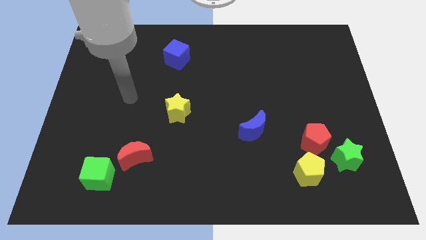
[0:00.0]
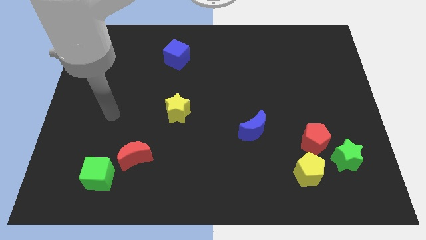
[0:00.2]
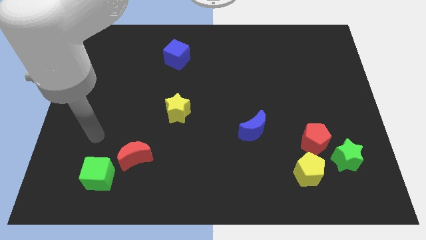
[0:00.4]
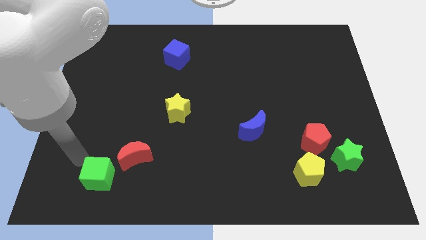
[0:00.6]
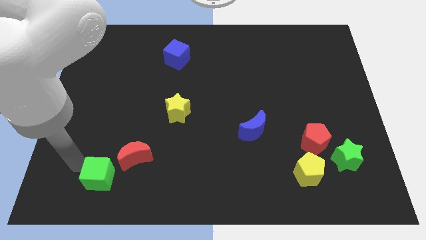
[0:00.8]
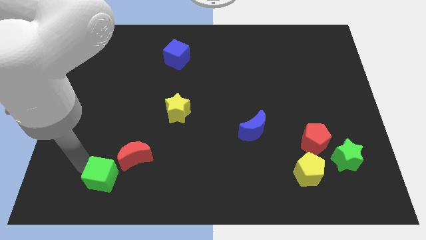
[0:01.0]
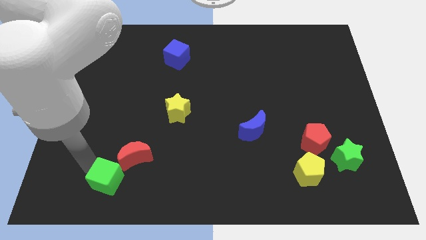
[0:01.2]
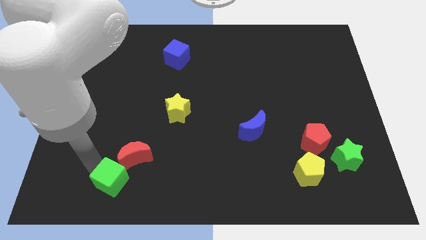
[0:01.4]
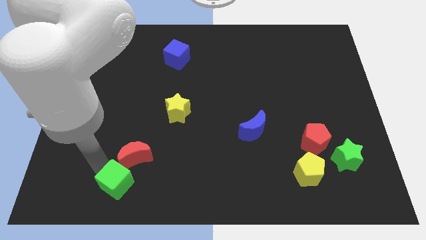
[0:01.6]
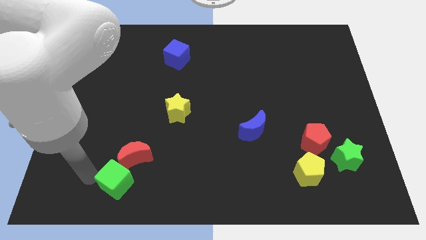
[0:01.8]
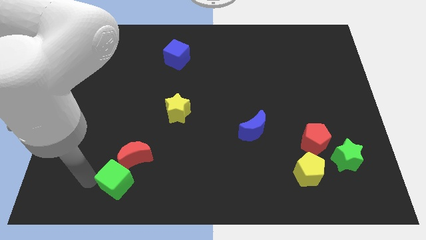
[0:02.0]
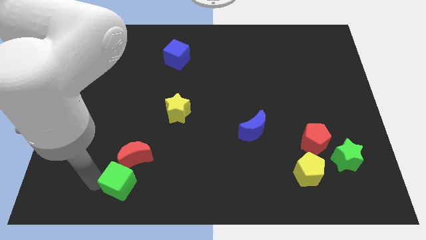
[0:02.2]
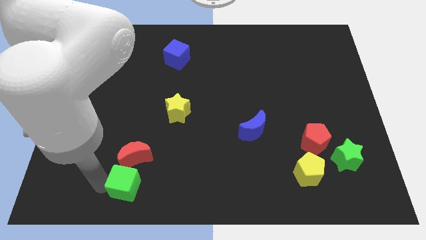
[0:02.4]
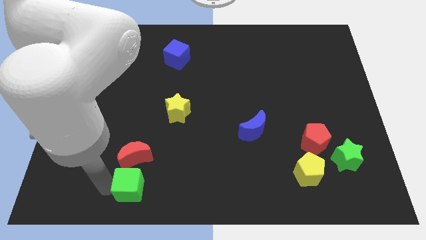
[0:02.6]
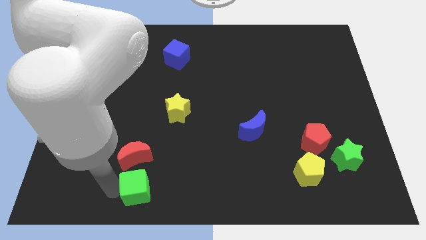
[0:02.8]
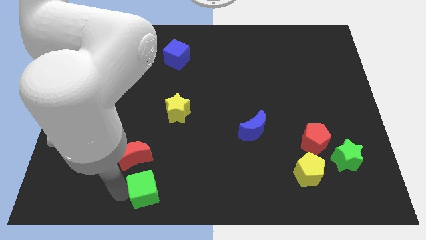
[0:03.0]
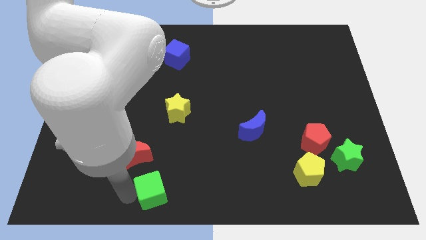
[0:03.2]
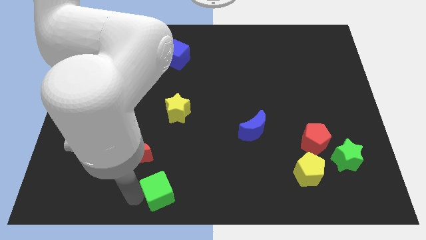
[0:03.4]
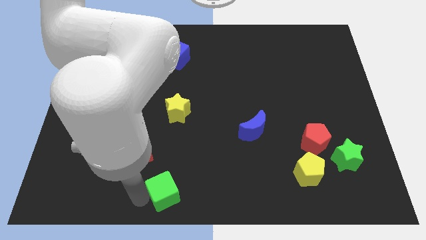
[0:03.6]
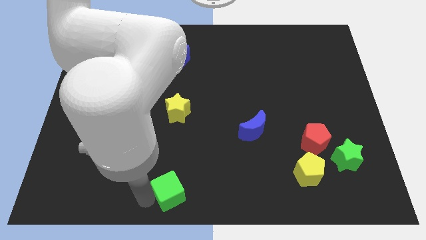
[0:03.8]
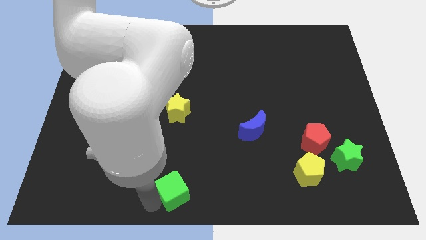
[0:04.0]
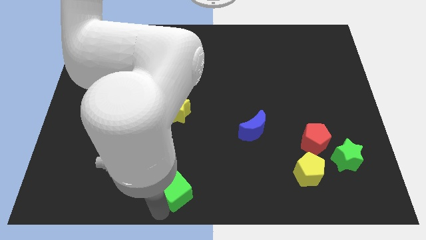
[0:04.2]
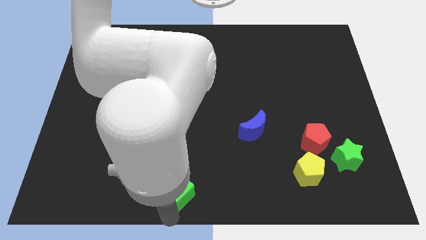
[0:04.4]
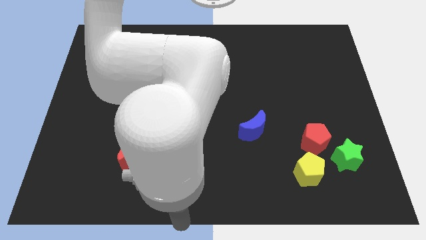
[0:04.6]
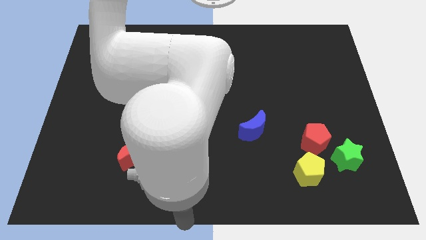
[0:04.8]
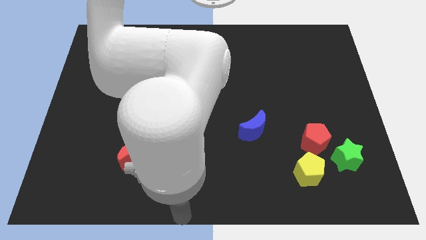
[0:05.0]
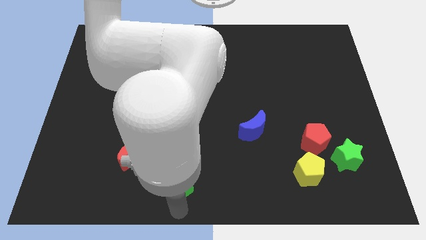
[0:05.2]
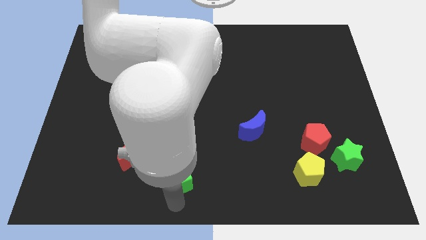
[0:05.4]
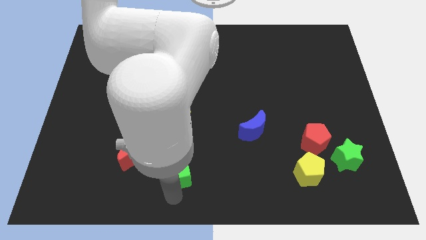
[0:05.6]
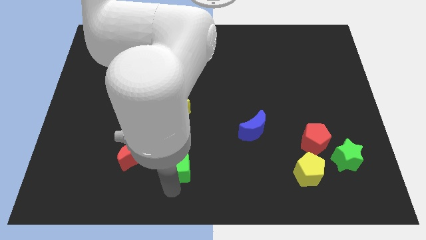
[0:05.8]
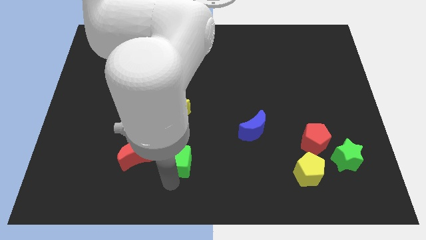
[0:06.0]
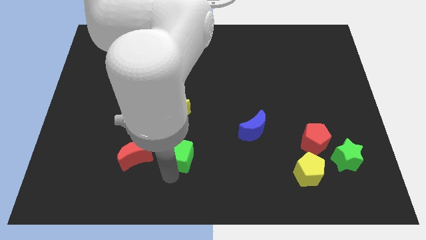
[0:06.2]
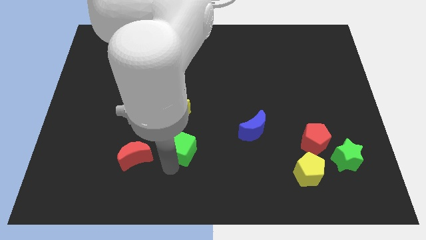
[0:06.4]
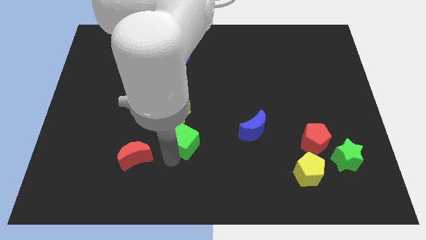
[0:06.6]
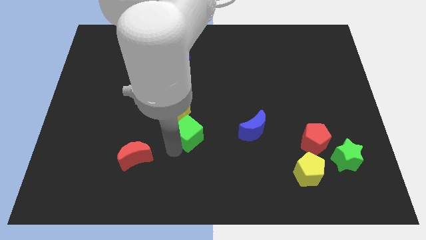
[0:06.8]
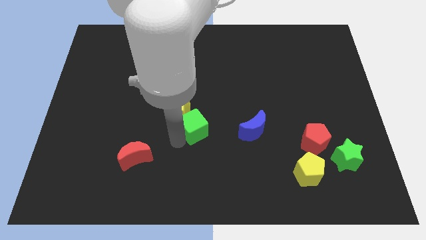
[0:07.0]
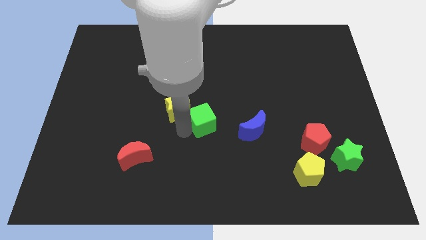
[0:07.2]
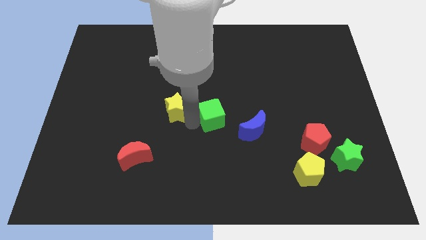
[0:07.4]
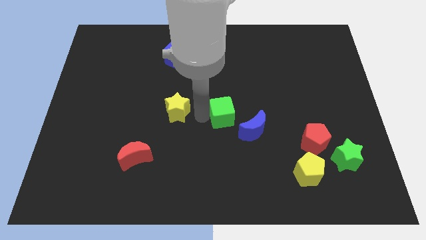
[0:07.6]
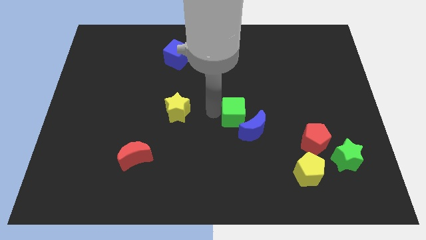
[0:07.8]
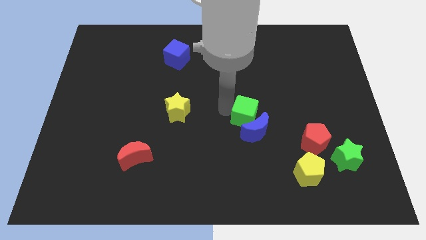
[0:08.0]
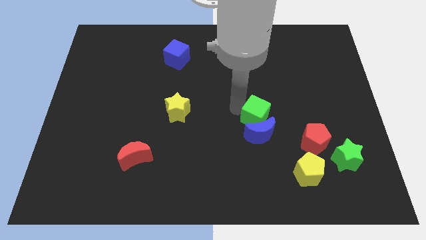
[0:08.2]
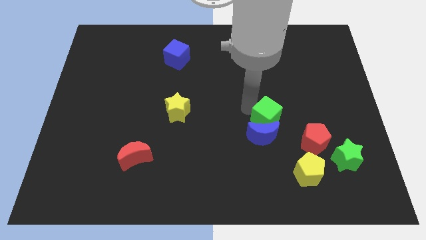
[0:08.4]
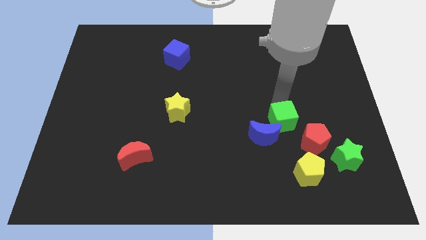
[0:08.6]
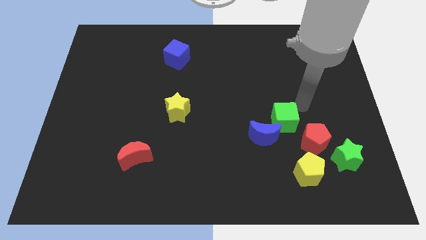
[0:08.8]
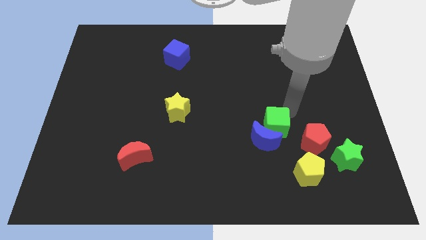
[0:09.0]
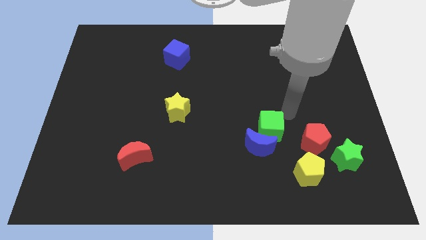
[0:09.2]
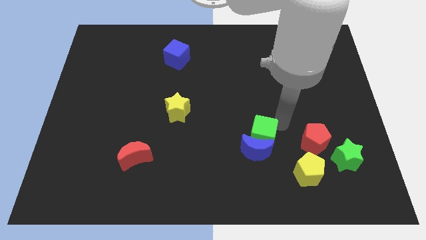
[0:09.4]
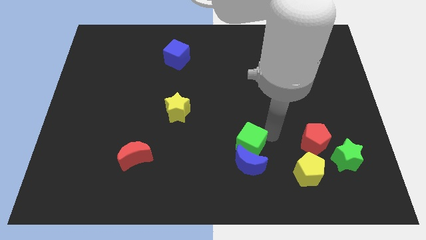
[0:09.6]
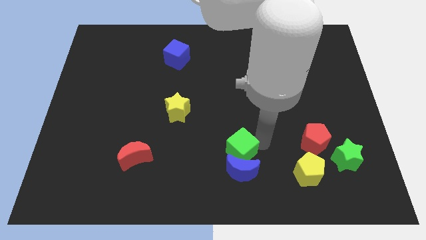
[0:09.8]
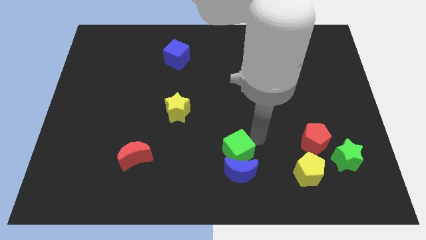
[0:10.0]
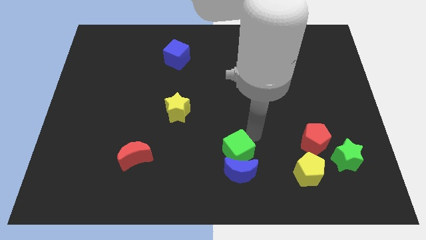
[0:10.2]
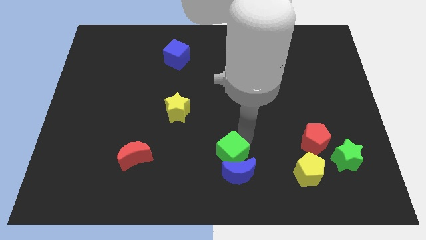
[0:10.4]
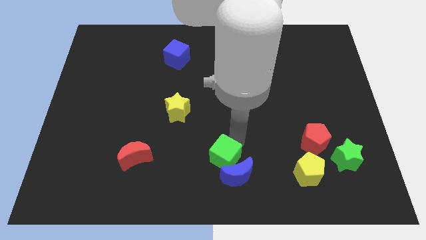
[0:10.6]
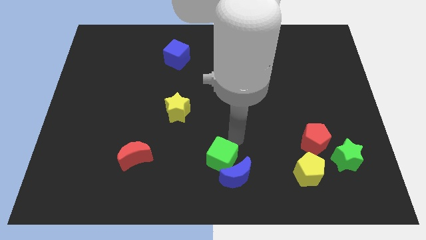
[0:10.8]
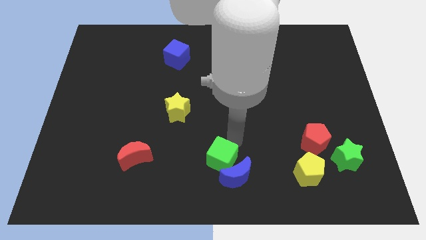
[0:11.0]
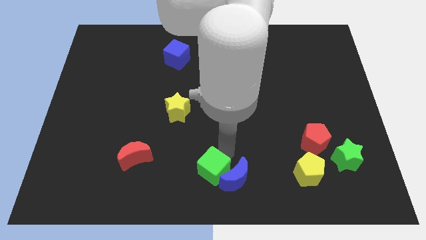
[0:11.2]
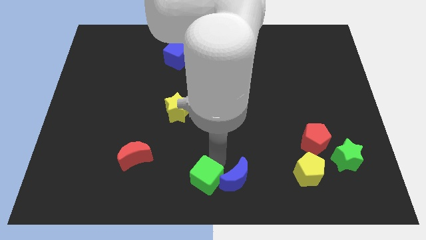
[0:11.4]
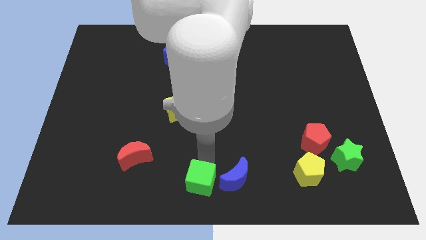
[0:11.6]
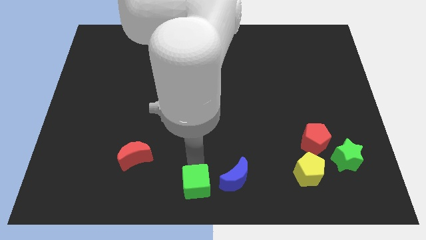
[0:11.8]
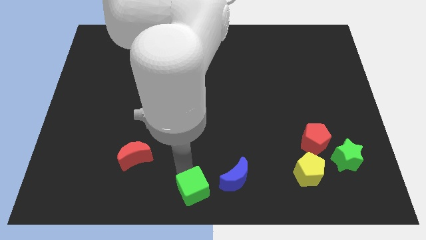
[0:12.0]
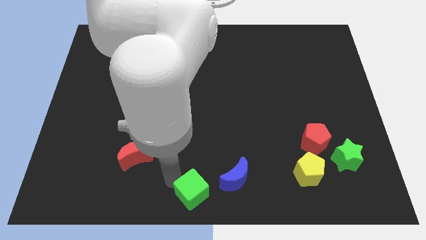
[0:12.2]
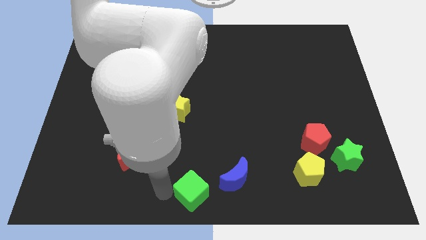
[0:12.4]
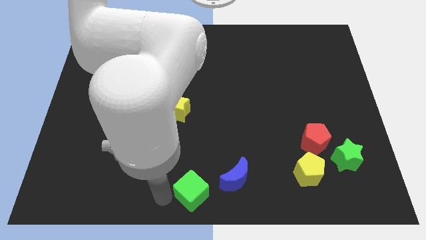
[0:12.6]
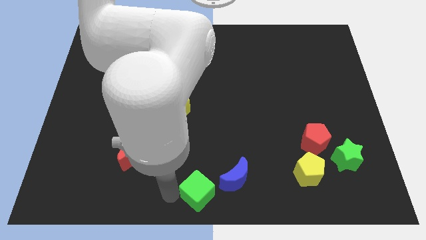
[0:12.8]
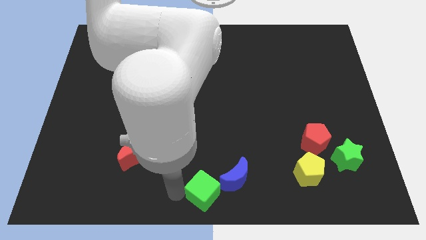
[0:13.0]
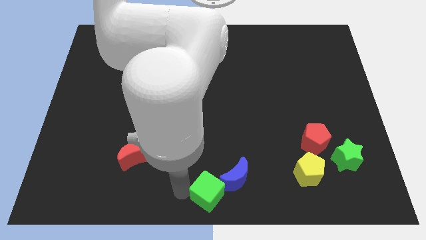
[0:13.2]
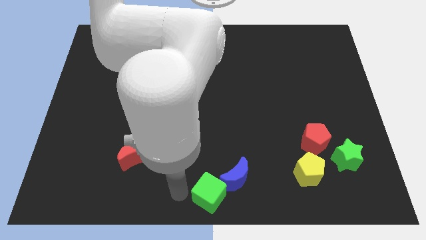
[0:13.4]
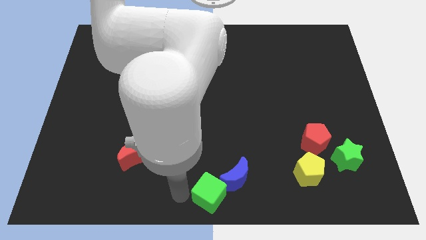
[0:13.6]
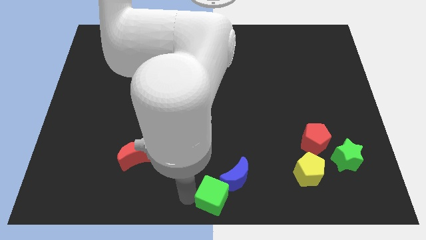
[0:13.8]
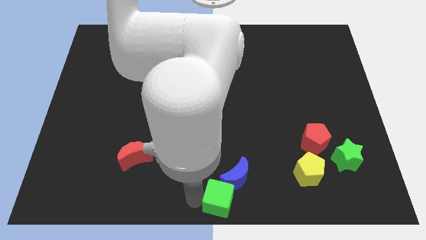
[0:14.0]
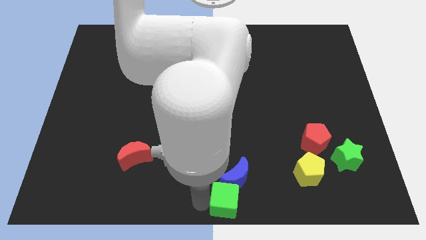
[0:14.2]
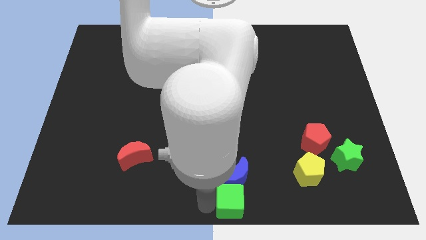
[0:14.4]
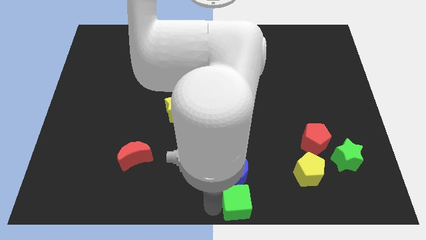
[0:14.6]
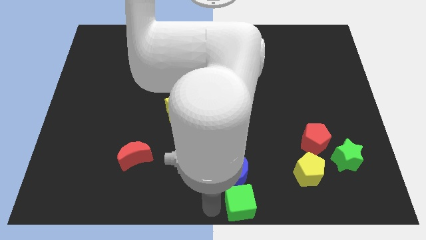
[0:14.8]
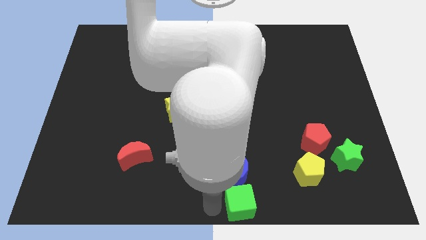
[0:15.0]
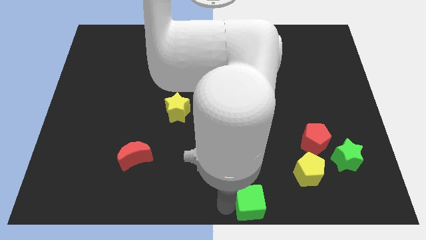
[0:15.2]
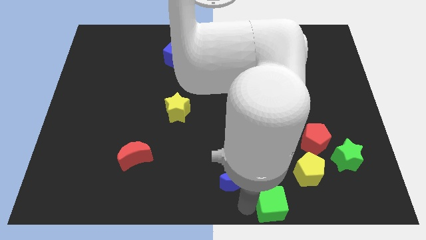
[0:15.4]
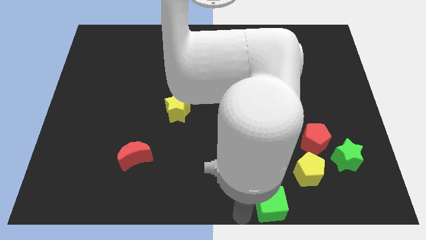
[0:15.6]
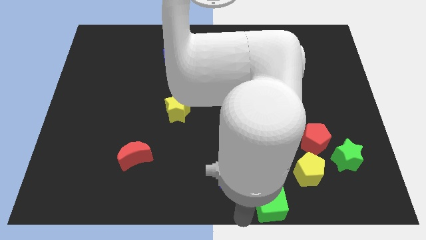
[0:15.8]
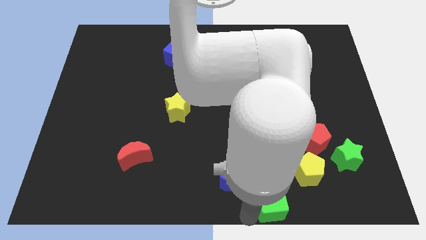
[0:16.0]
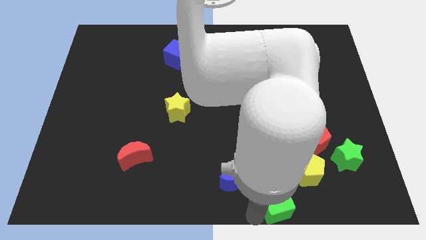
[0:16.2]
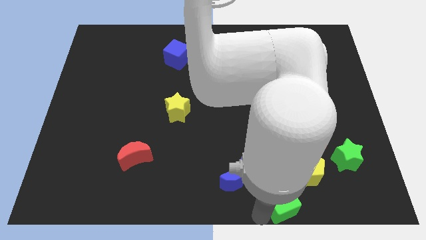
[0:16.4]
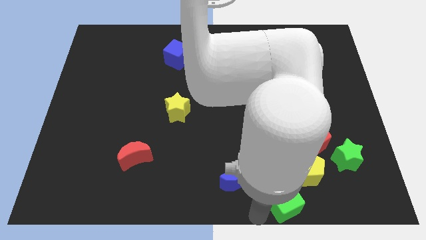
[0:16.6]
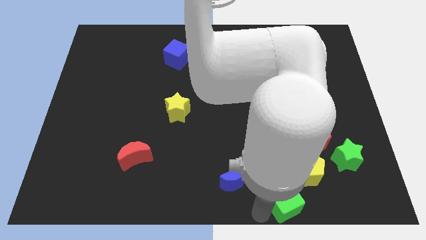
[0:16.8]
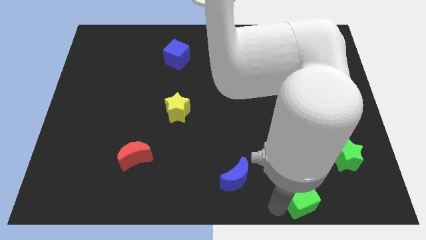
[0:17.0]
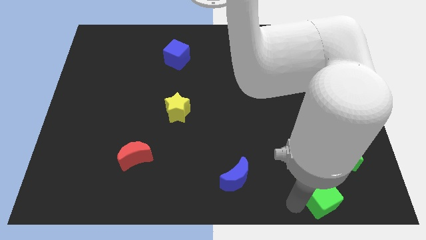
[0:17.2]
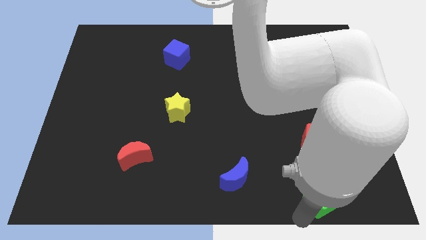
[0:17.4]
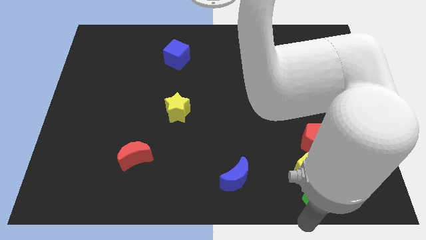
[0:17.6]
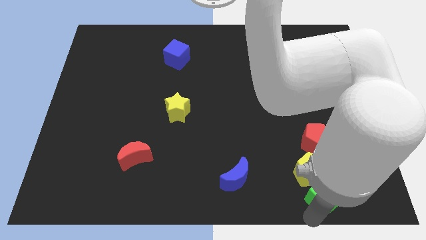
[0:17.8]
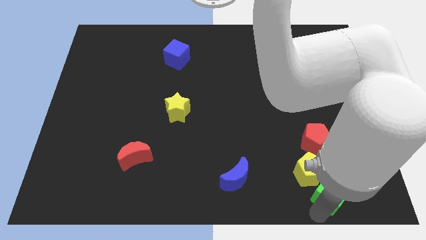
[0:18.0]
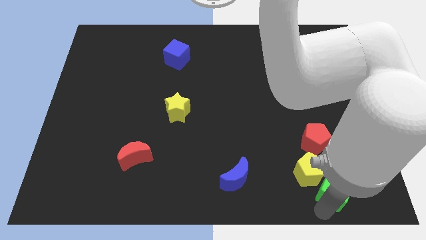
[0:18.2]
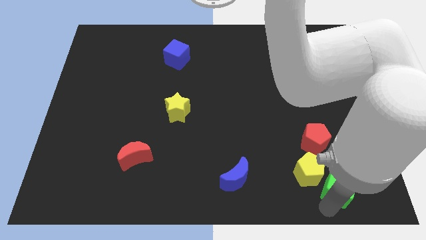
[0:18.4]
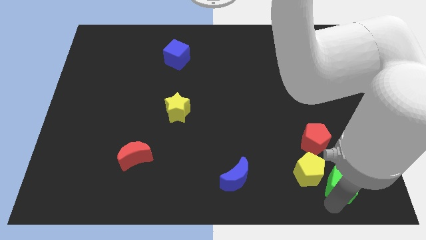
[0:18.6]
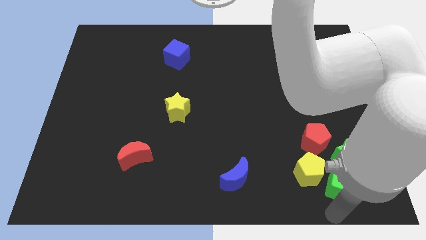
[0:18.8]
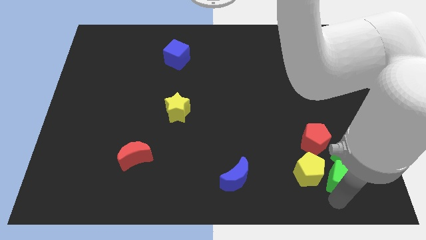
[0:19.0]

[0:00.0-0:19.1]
push the green cube next to the green star
